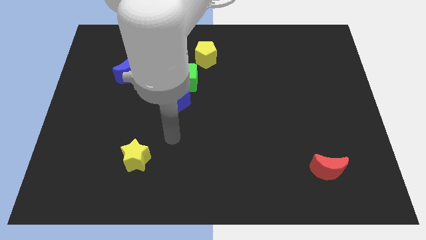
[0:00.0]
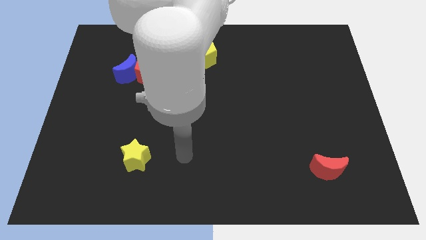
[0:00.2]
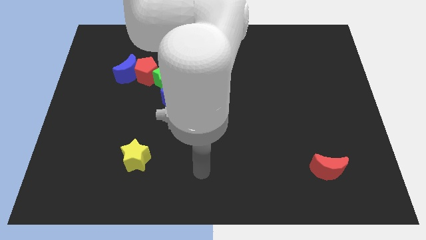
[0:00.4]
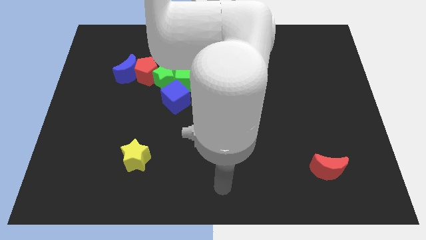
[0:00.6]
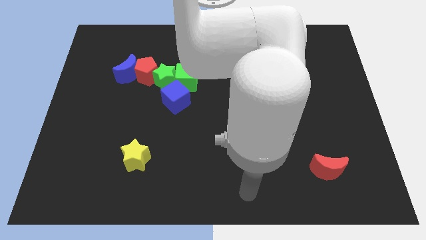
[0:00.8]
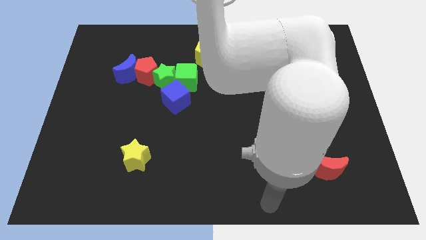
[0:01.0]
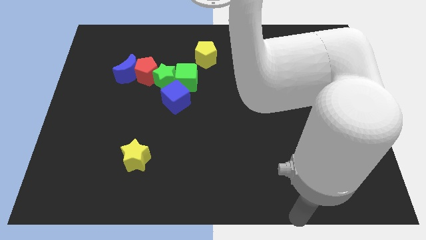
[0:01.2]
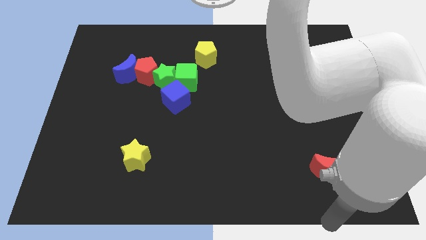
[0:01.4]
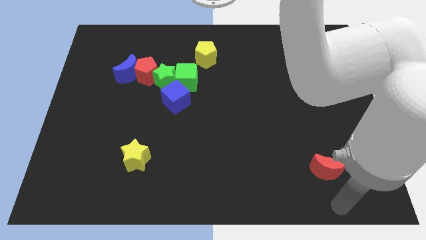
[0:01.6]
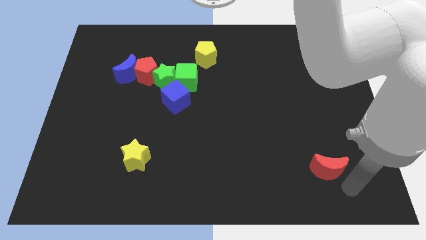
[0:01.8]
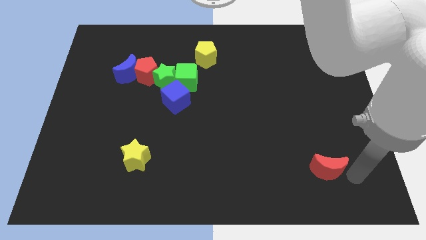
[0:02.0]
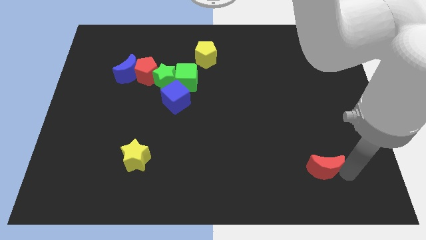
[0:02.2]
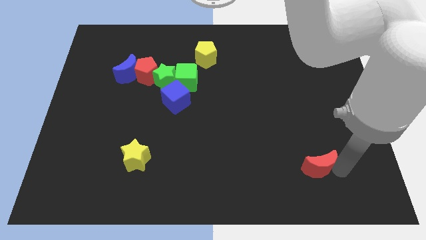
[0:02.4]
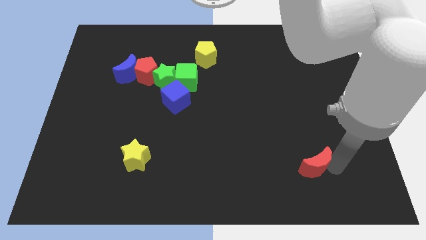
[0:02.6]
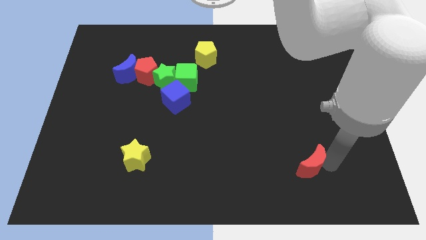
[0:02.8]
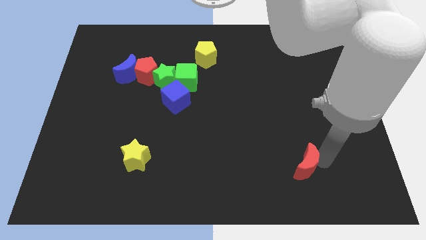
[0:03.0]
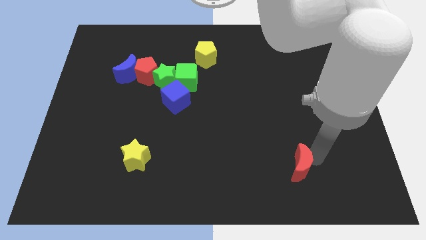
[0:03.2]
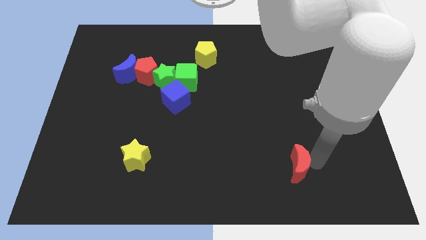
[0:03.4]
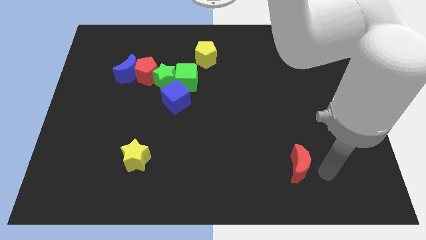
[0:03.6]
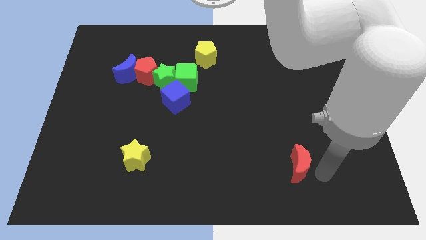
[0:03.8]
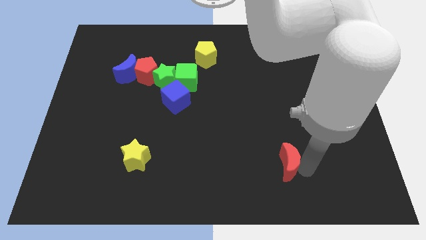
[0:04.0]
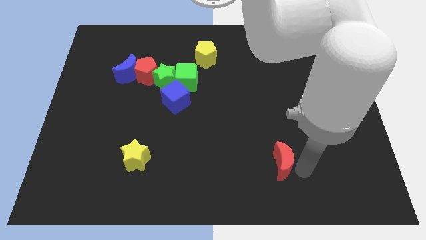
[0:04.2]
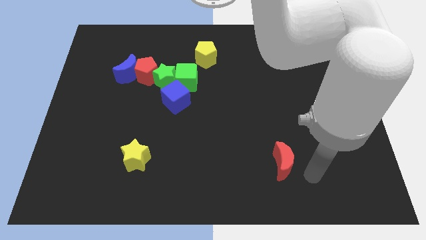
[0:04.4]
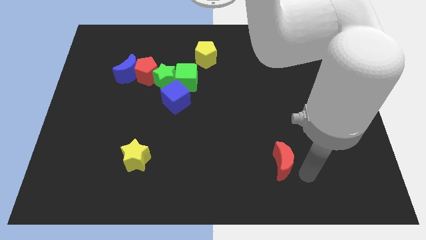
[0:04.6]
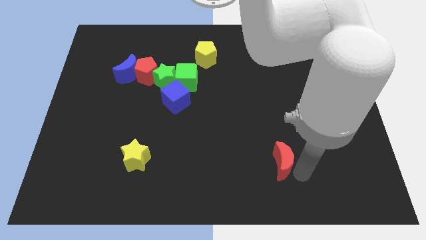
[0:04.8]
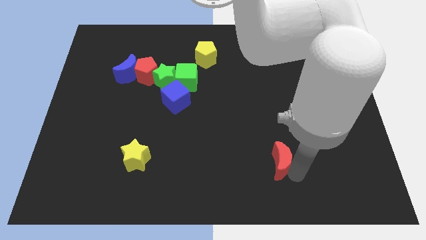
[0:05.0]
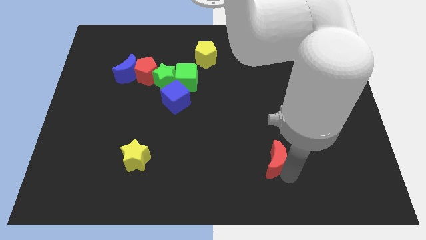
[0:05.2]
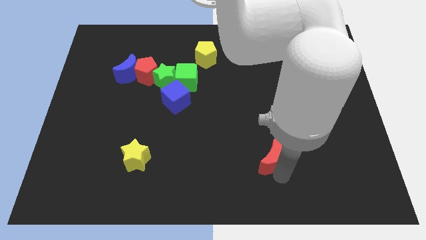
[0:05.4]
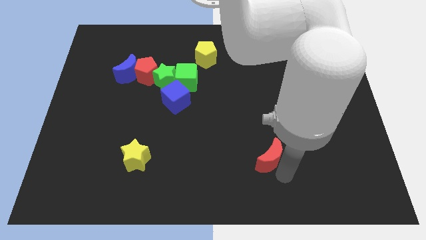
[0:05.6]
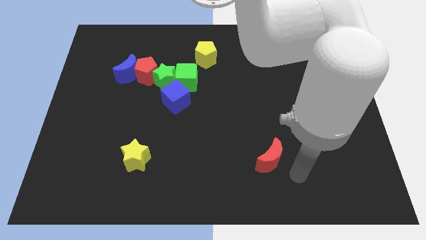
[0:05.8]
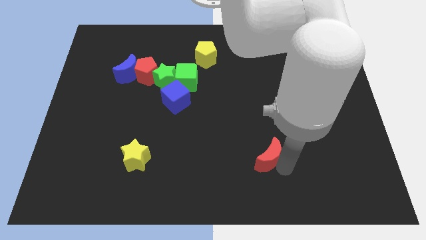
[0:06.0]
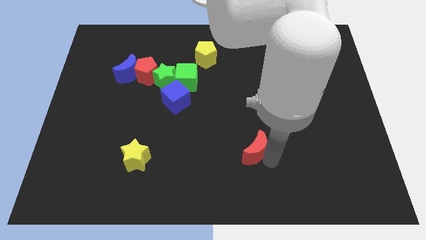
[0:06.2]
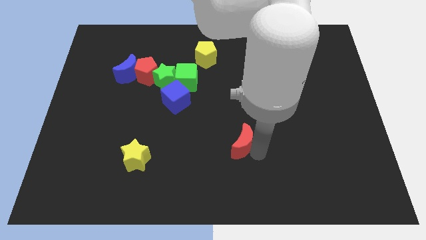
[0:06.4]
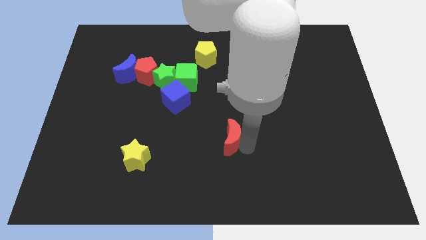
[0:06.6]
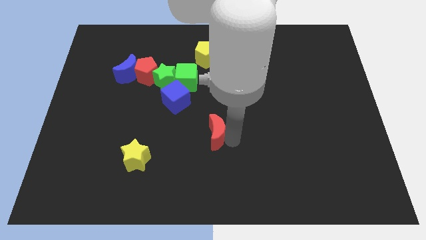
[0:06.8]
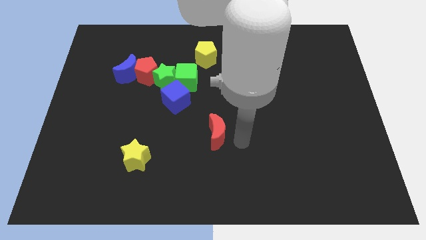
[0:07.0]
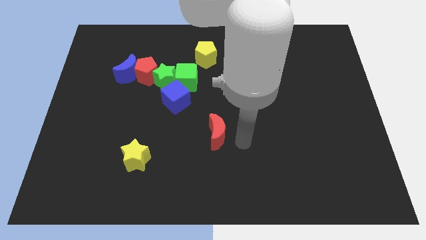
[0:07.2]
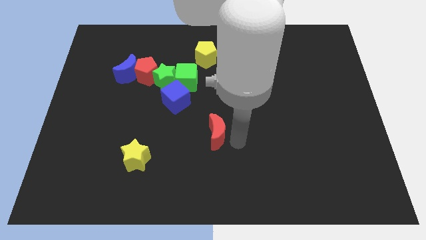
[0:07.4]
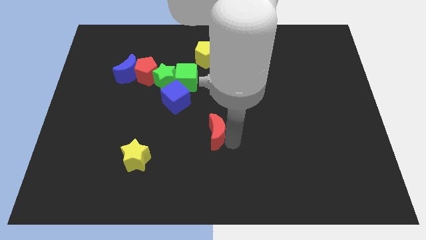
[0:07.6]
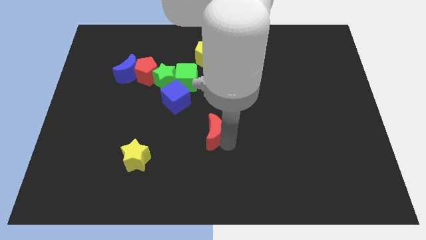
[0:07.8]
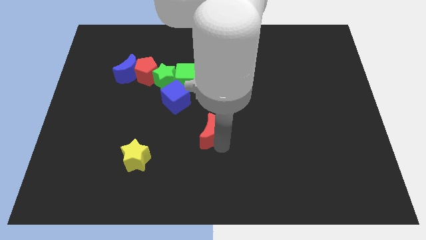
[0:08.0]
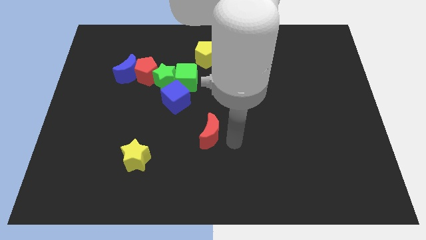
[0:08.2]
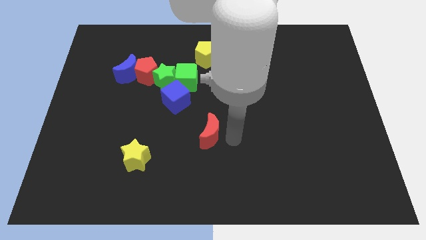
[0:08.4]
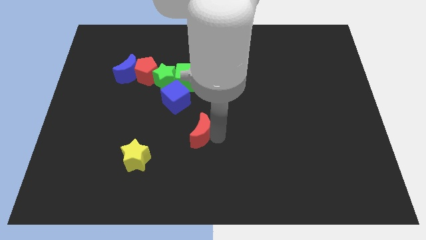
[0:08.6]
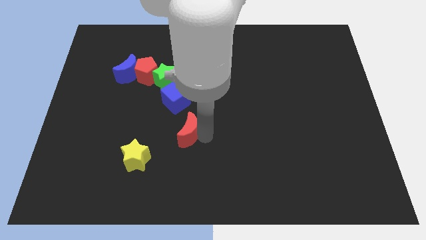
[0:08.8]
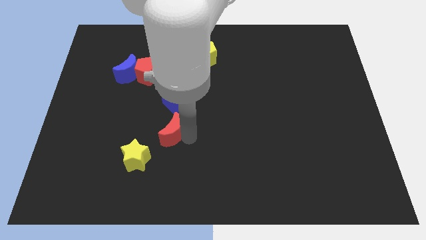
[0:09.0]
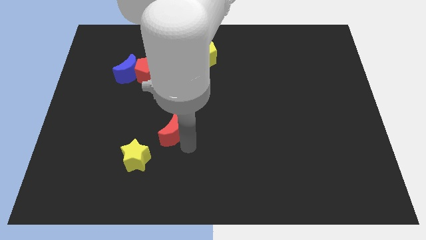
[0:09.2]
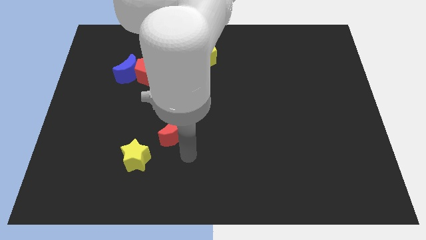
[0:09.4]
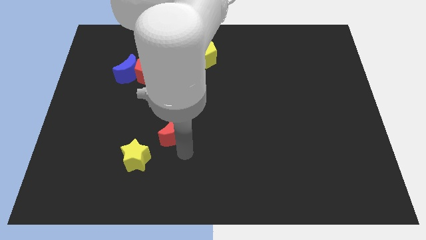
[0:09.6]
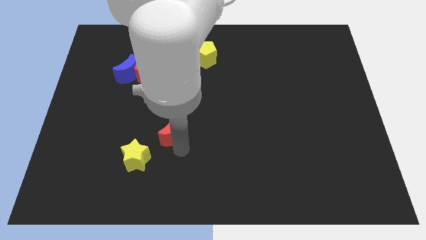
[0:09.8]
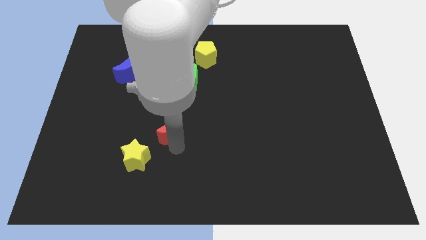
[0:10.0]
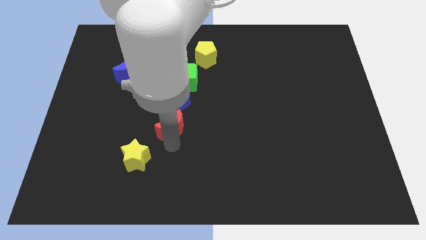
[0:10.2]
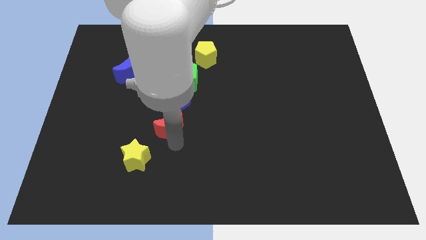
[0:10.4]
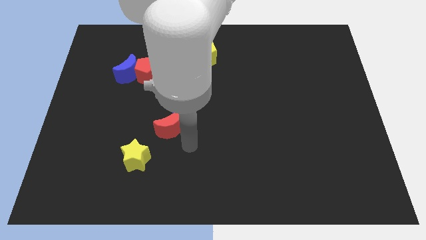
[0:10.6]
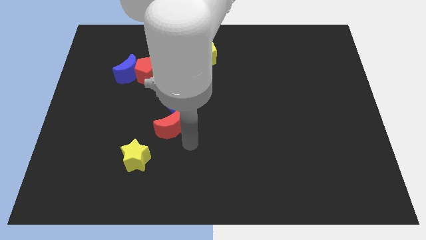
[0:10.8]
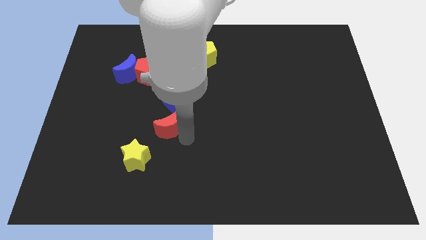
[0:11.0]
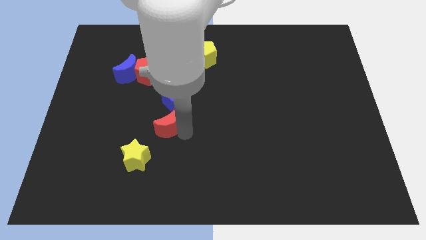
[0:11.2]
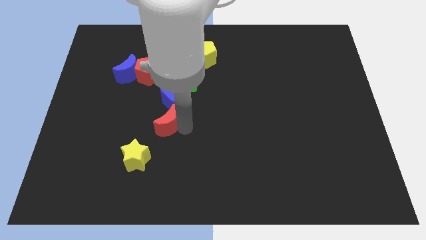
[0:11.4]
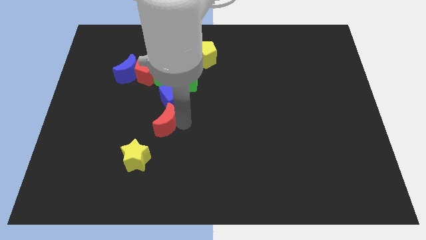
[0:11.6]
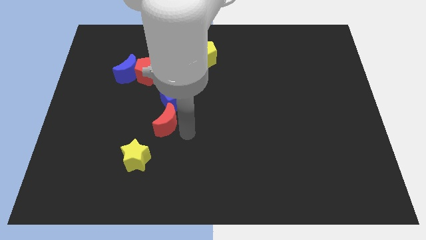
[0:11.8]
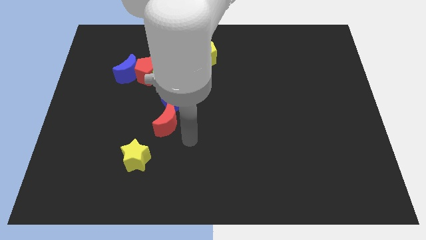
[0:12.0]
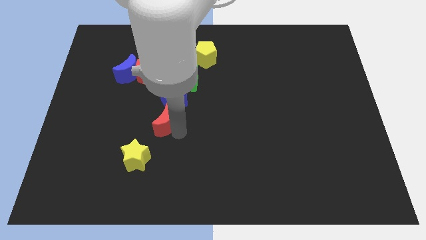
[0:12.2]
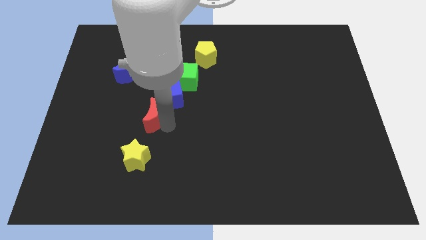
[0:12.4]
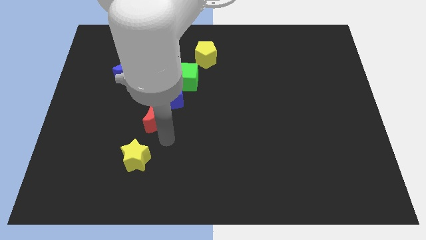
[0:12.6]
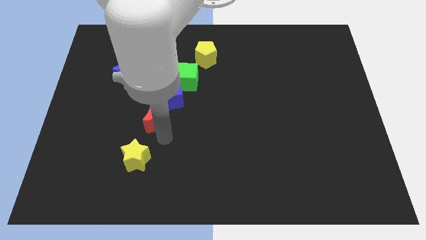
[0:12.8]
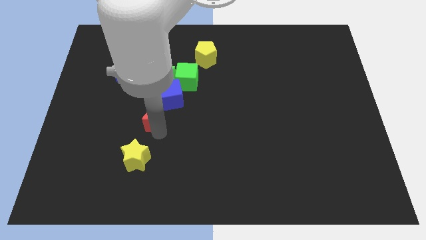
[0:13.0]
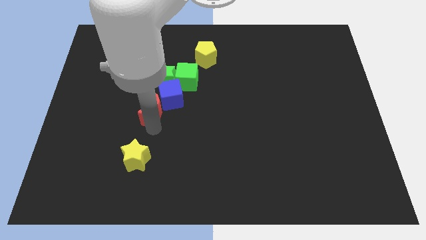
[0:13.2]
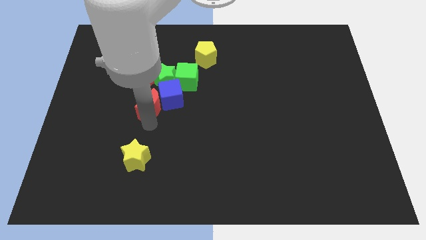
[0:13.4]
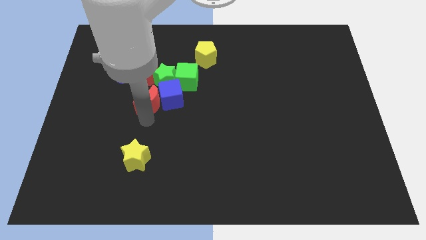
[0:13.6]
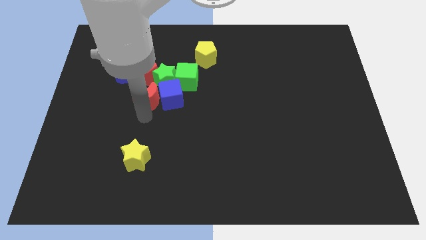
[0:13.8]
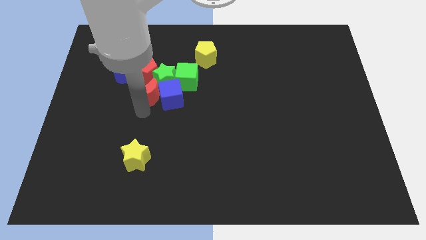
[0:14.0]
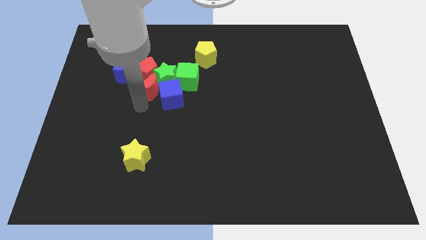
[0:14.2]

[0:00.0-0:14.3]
slide the red moon towards the red pentagon
